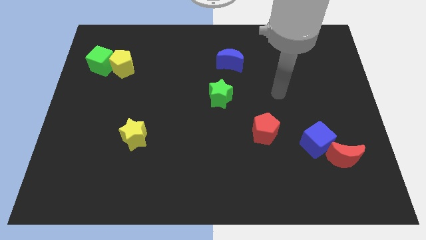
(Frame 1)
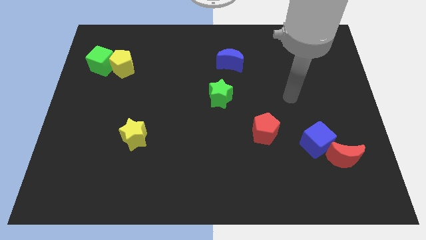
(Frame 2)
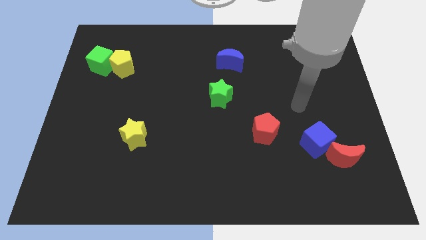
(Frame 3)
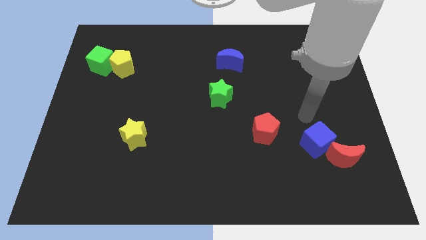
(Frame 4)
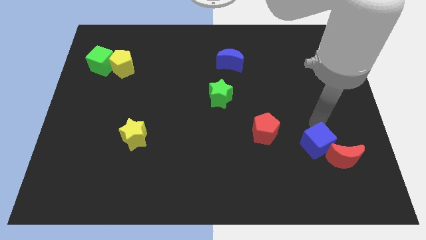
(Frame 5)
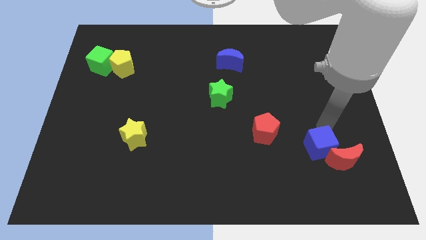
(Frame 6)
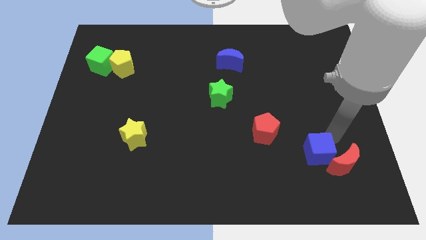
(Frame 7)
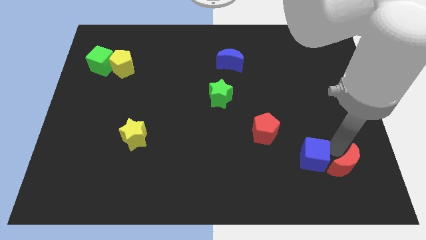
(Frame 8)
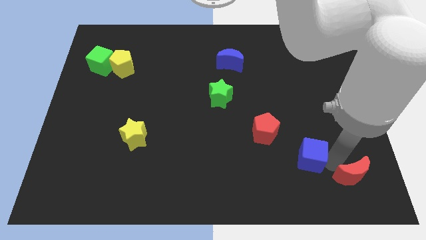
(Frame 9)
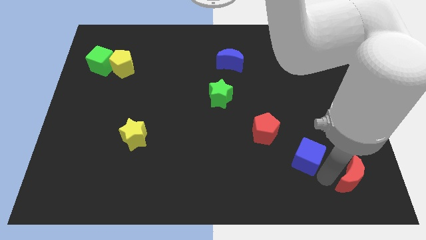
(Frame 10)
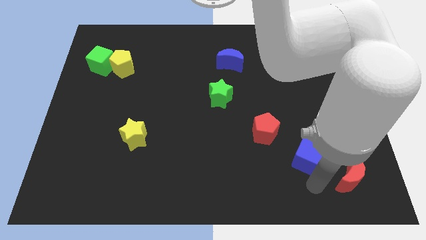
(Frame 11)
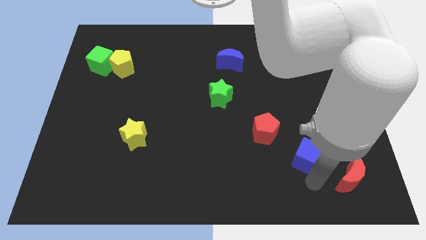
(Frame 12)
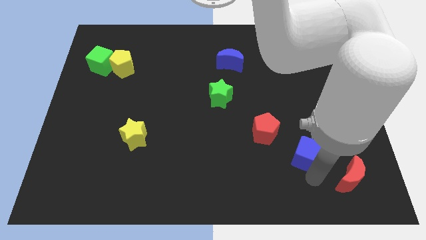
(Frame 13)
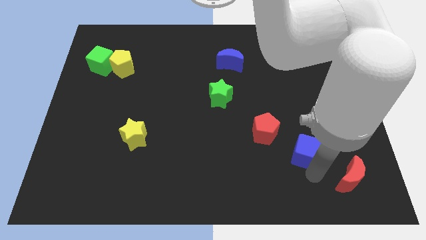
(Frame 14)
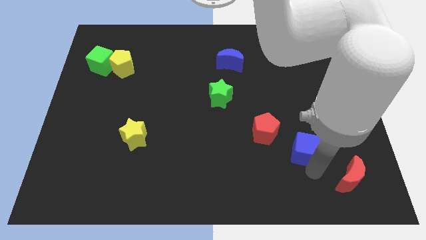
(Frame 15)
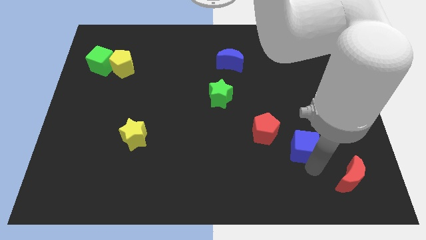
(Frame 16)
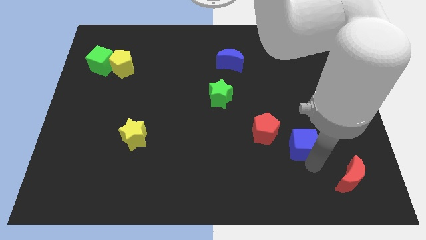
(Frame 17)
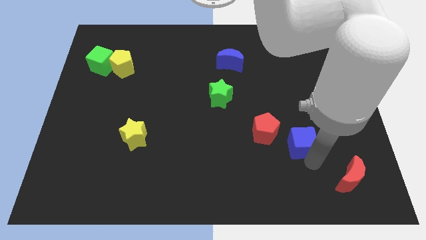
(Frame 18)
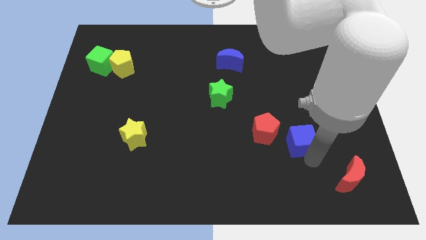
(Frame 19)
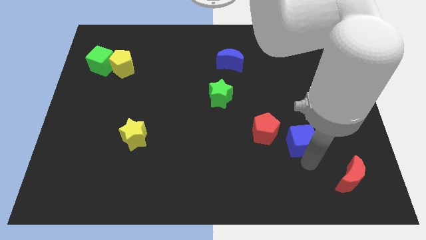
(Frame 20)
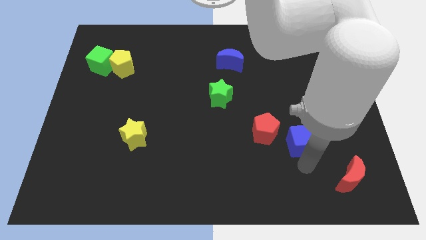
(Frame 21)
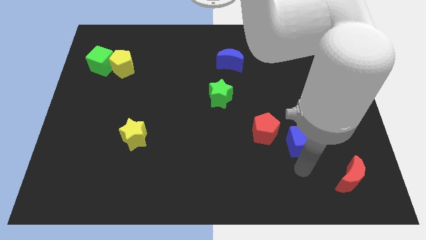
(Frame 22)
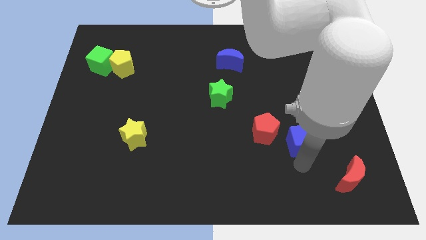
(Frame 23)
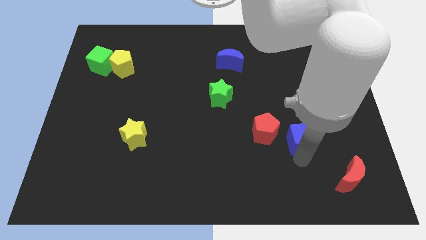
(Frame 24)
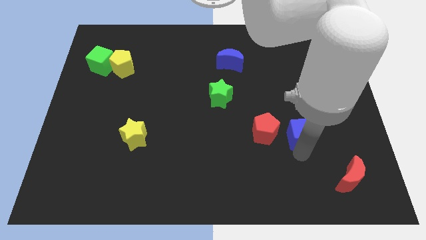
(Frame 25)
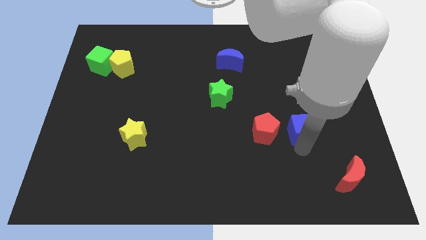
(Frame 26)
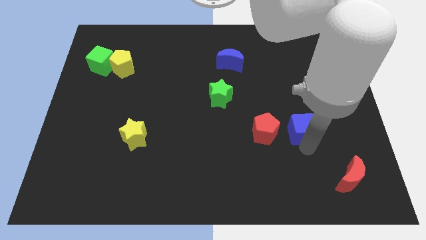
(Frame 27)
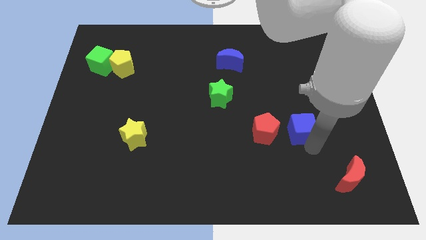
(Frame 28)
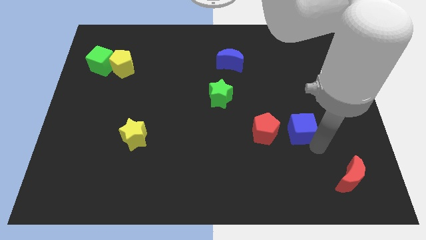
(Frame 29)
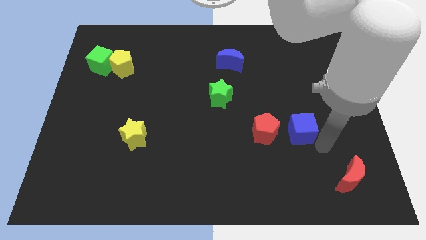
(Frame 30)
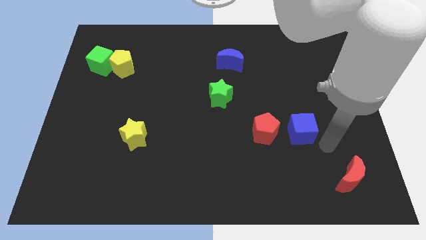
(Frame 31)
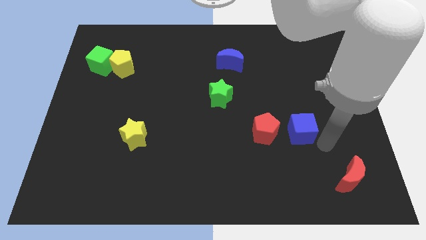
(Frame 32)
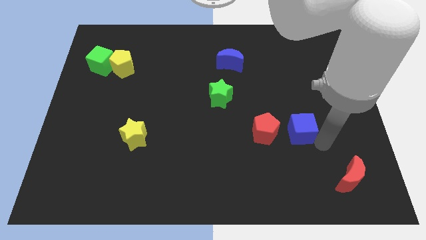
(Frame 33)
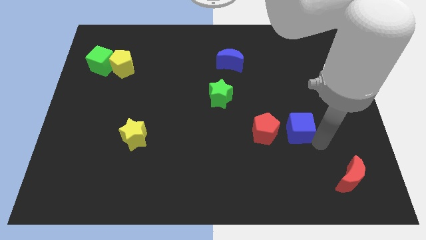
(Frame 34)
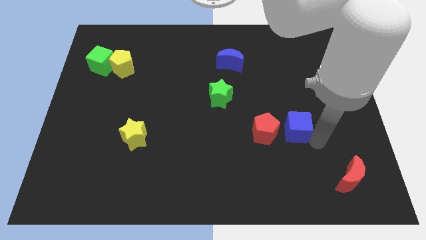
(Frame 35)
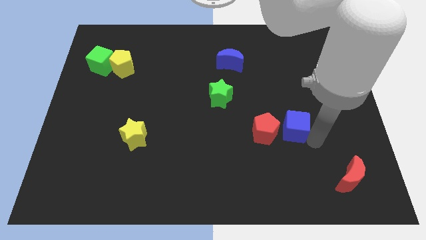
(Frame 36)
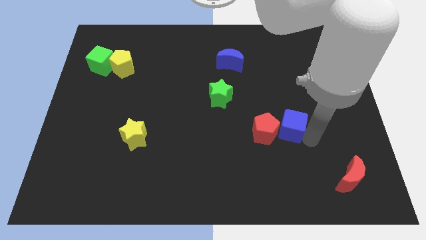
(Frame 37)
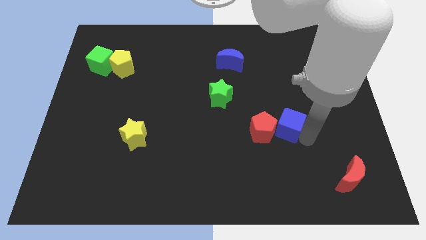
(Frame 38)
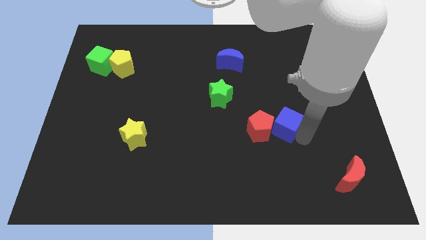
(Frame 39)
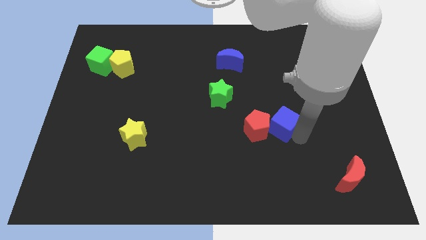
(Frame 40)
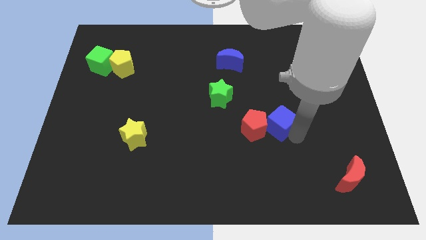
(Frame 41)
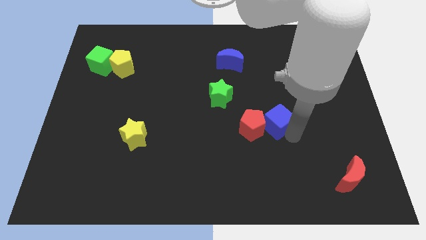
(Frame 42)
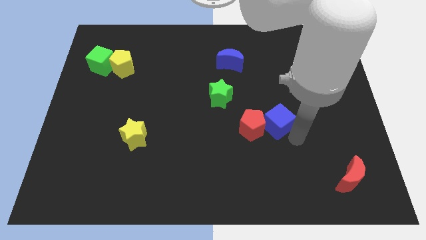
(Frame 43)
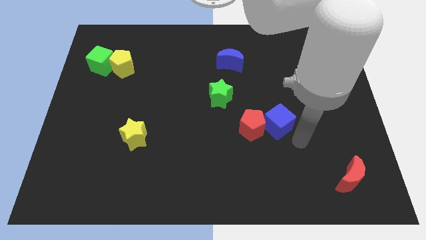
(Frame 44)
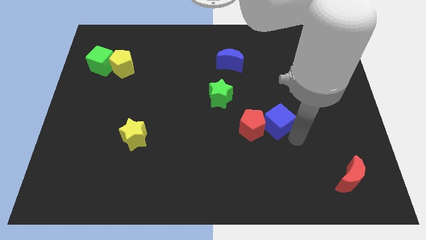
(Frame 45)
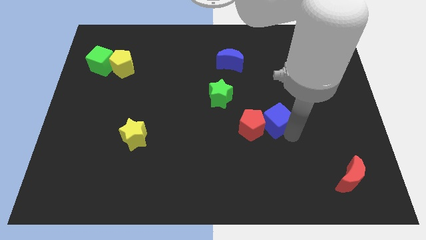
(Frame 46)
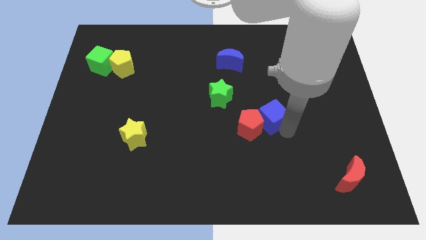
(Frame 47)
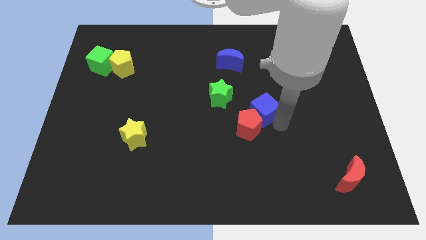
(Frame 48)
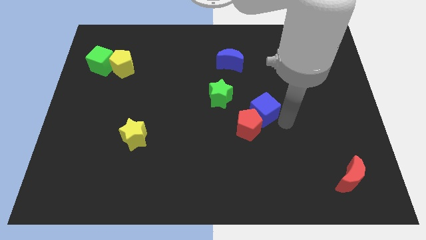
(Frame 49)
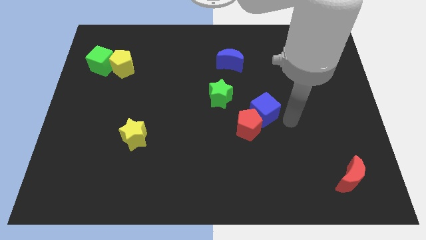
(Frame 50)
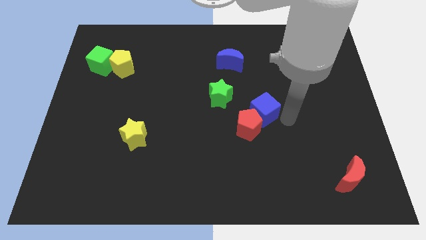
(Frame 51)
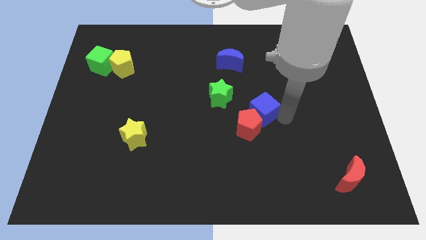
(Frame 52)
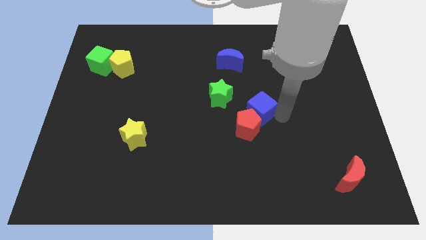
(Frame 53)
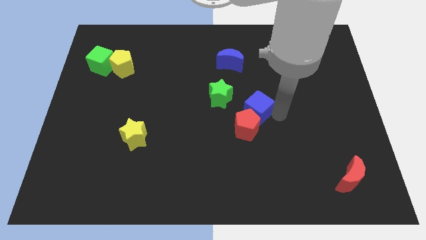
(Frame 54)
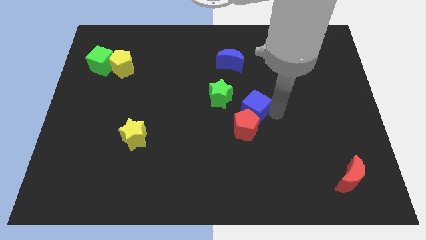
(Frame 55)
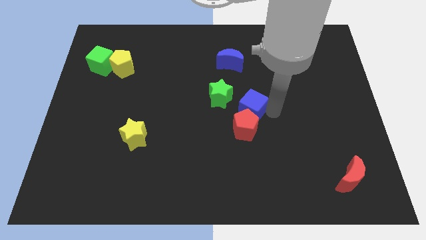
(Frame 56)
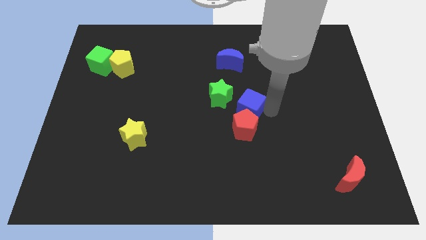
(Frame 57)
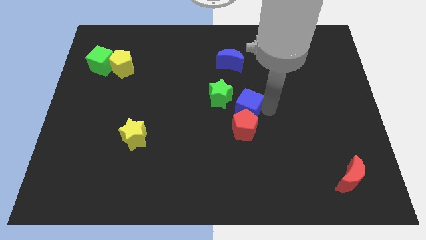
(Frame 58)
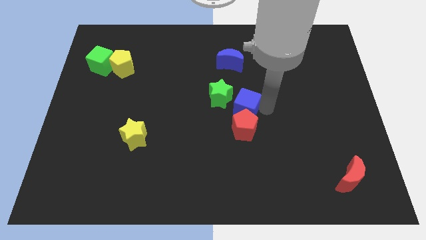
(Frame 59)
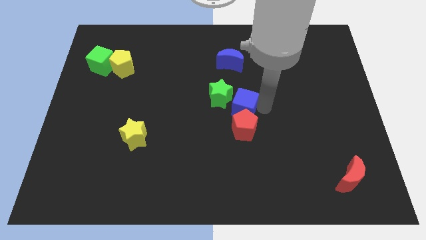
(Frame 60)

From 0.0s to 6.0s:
put the blue cube to the green star

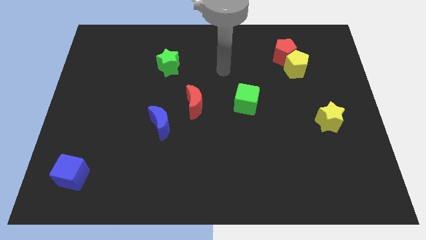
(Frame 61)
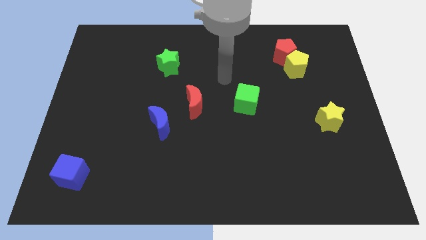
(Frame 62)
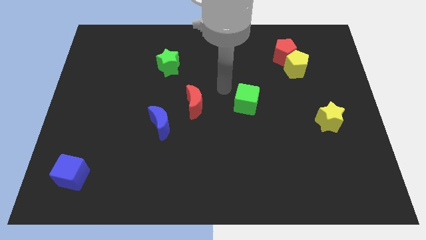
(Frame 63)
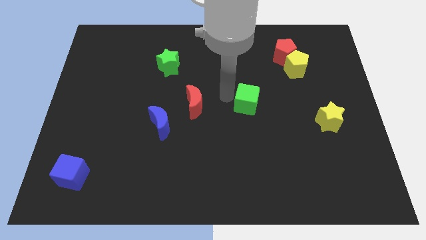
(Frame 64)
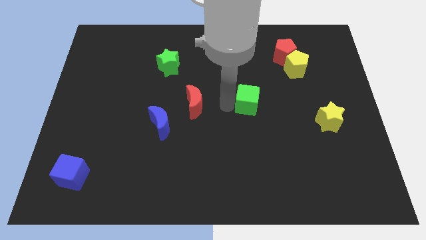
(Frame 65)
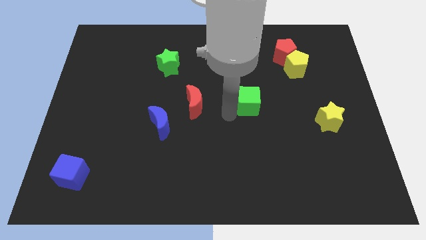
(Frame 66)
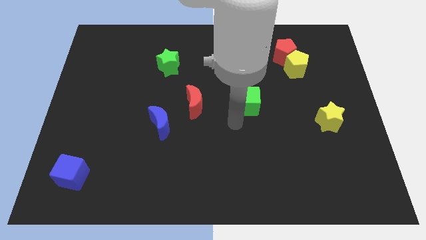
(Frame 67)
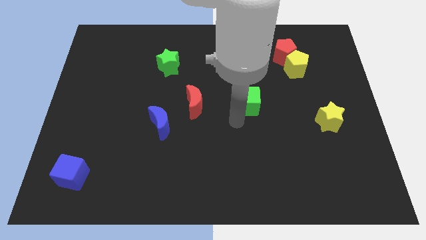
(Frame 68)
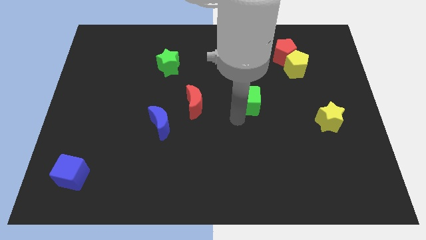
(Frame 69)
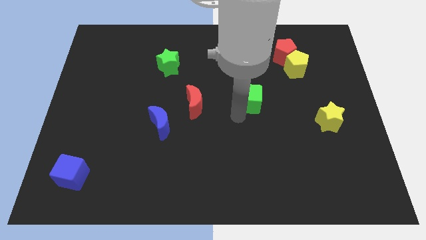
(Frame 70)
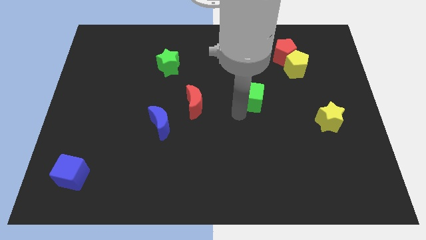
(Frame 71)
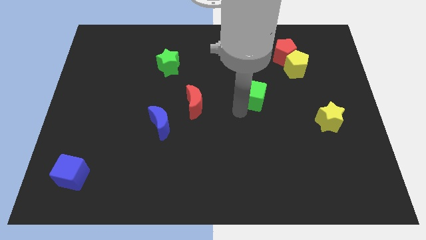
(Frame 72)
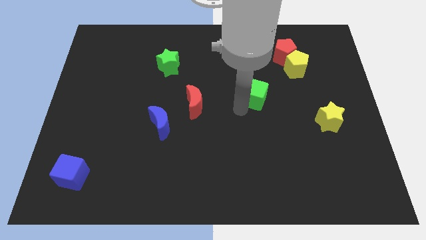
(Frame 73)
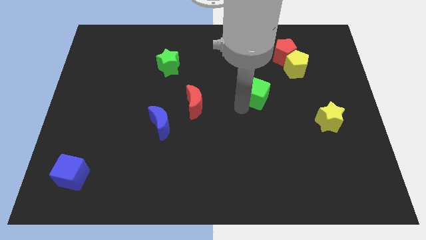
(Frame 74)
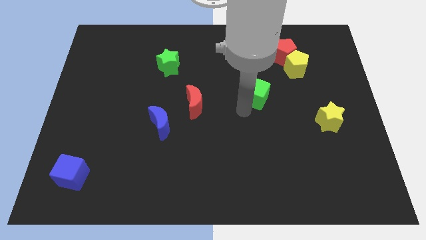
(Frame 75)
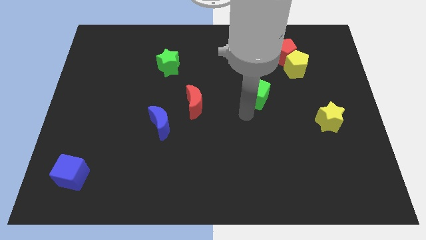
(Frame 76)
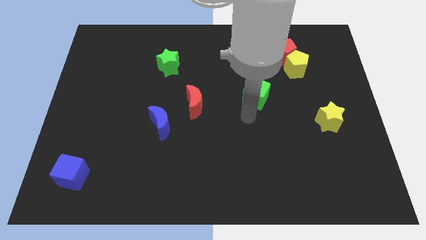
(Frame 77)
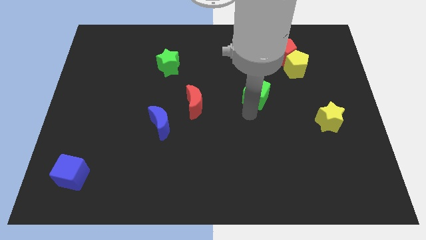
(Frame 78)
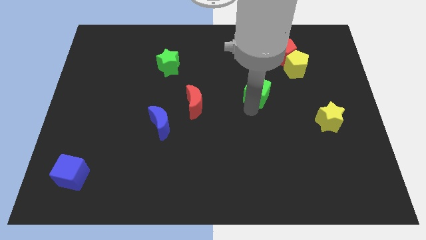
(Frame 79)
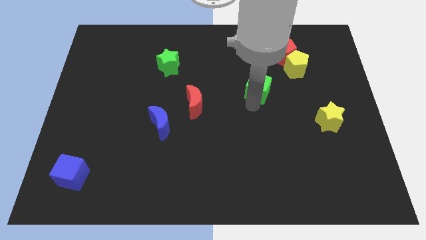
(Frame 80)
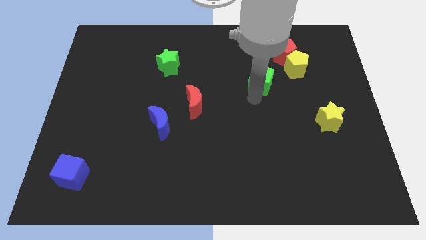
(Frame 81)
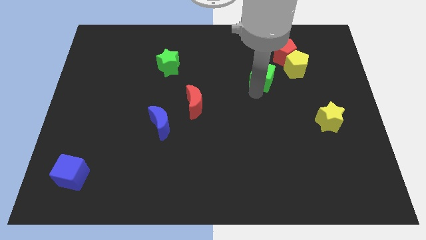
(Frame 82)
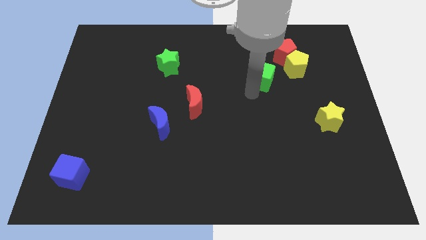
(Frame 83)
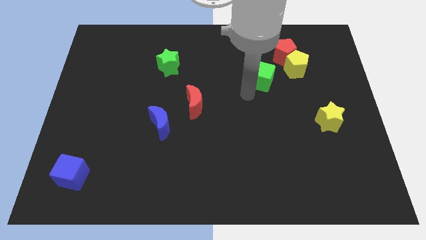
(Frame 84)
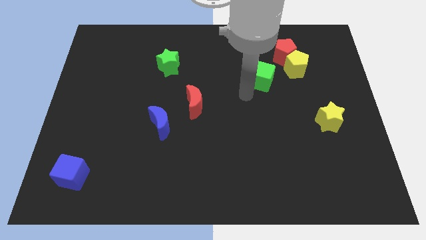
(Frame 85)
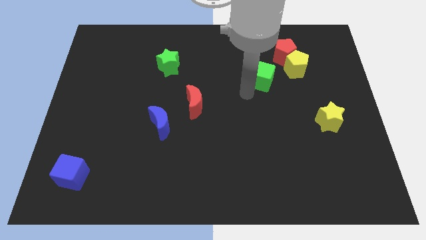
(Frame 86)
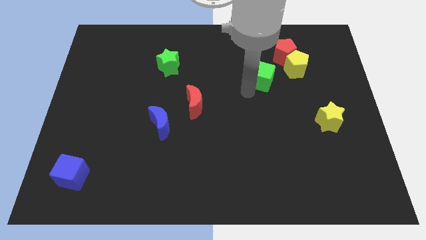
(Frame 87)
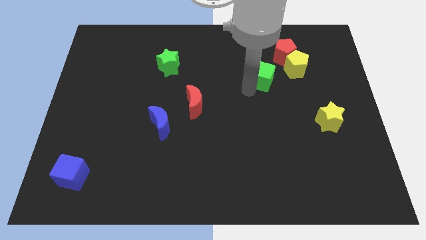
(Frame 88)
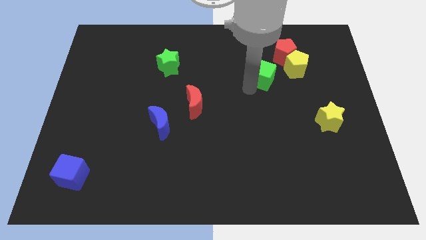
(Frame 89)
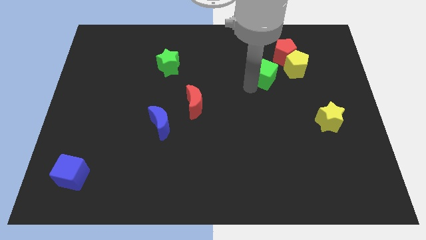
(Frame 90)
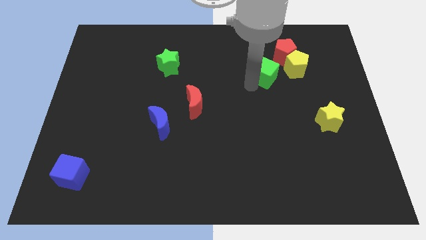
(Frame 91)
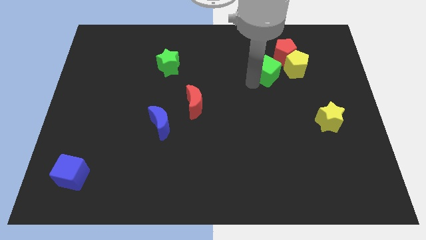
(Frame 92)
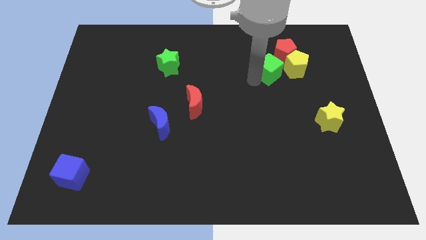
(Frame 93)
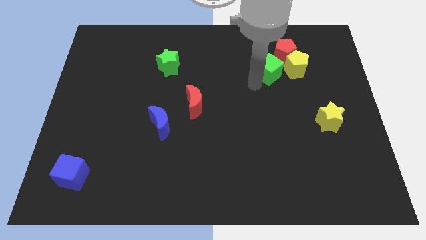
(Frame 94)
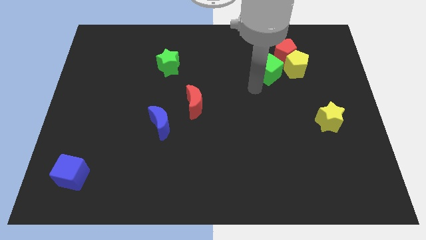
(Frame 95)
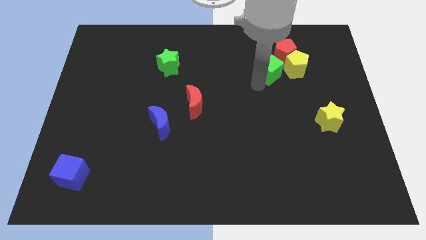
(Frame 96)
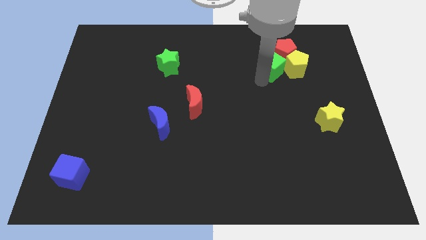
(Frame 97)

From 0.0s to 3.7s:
push the green cube next to the red pentagon
